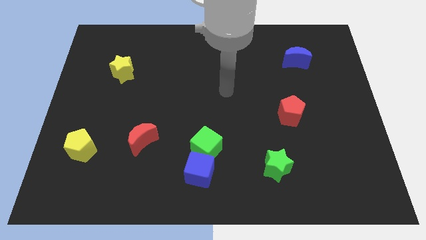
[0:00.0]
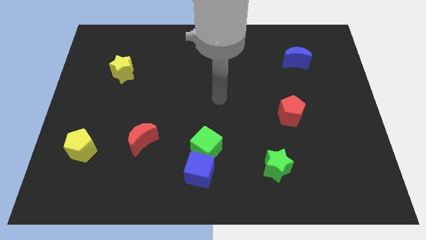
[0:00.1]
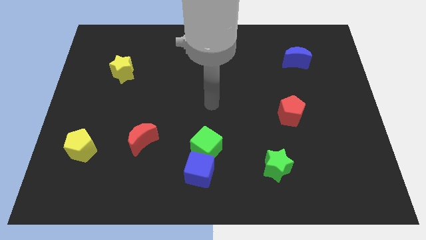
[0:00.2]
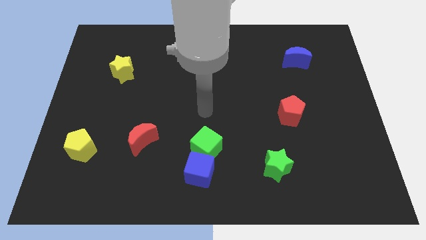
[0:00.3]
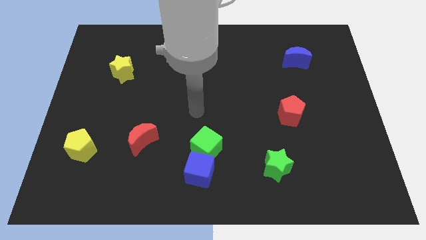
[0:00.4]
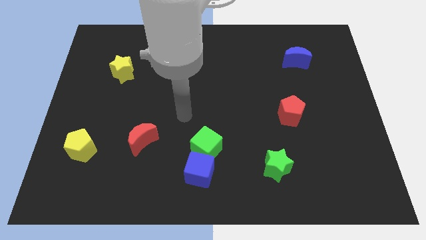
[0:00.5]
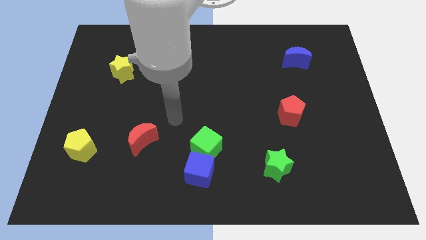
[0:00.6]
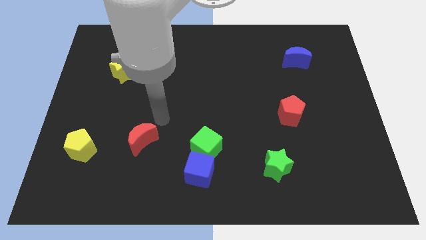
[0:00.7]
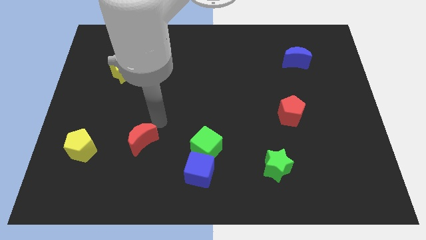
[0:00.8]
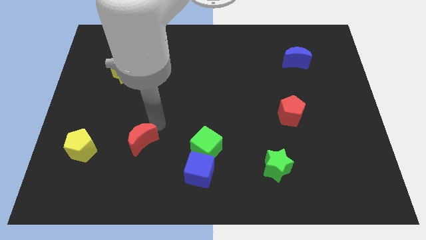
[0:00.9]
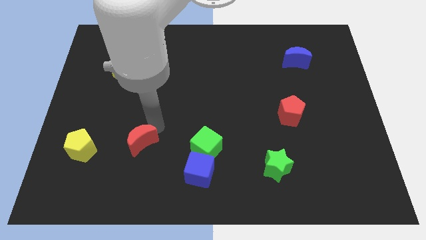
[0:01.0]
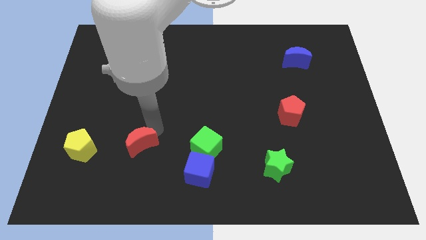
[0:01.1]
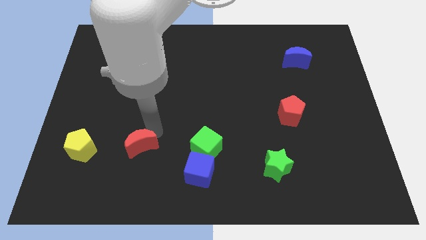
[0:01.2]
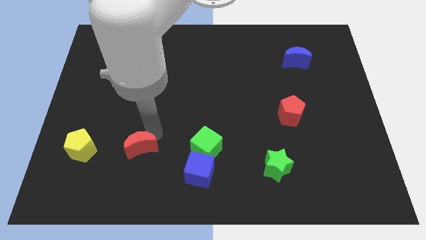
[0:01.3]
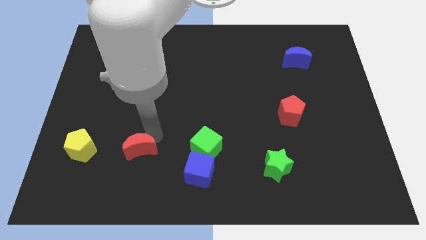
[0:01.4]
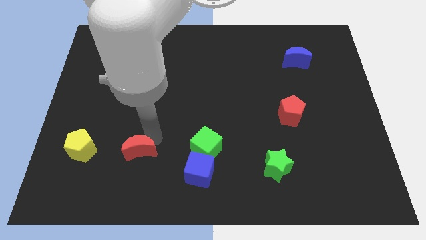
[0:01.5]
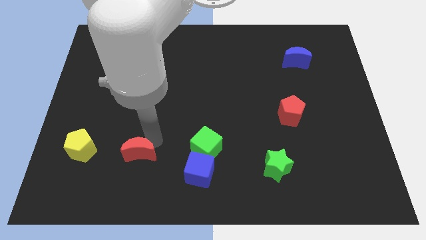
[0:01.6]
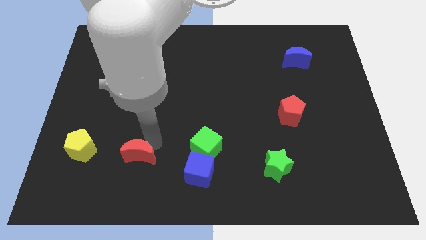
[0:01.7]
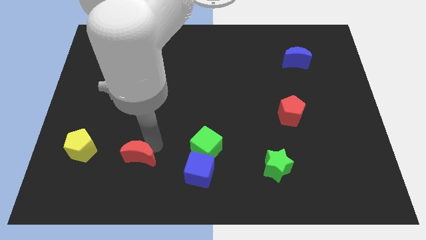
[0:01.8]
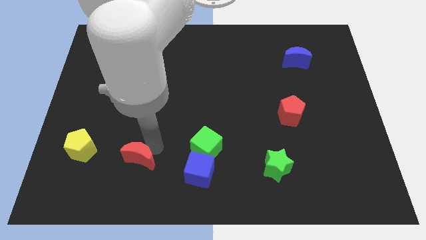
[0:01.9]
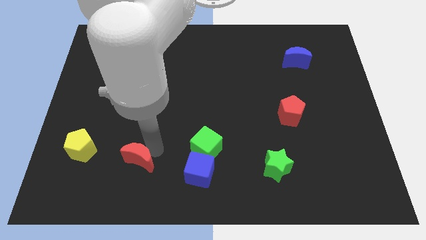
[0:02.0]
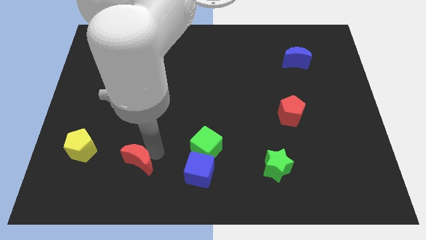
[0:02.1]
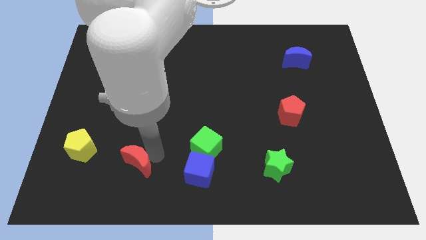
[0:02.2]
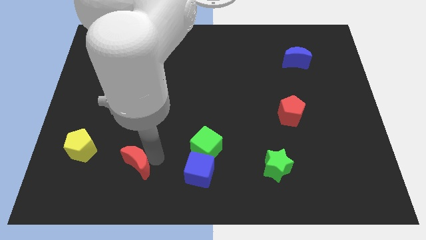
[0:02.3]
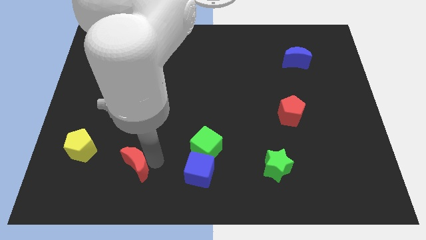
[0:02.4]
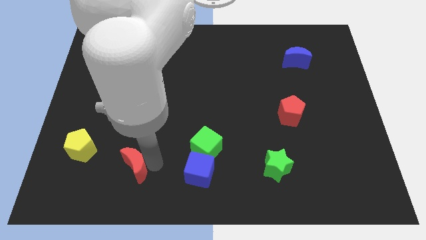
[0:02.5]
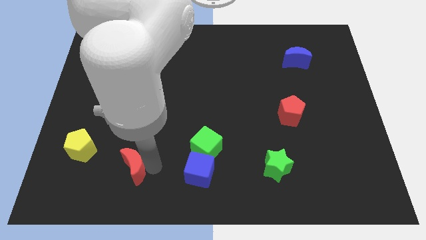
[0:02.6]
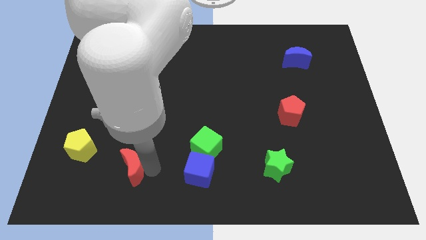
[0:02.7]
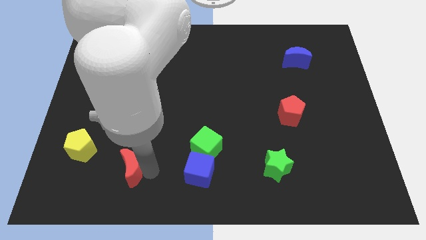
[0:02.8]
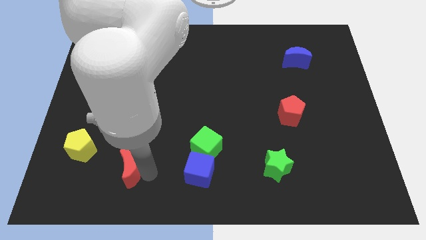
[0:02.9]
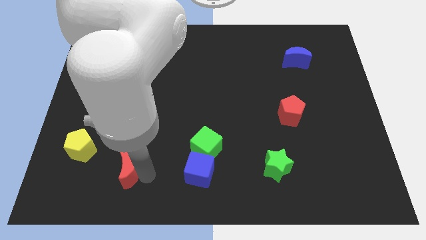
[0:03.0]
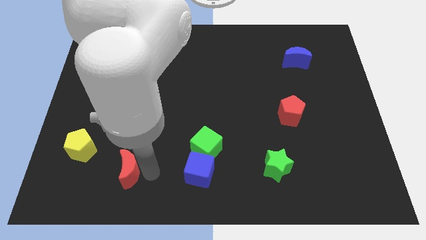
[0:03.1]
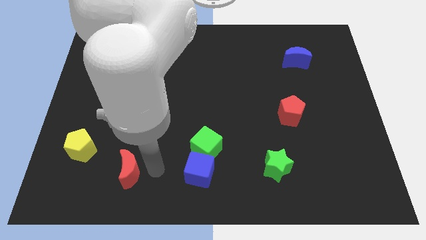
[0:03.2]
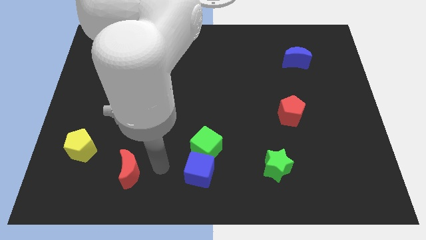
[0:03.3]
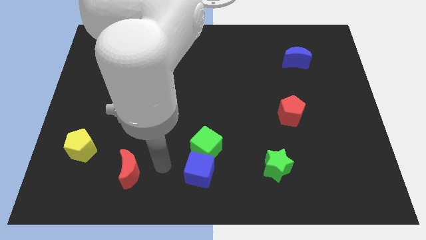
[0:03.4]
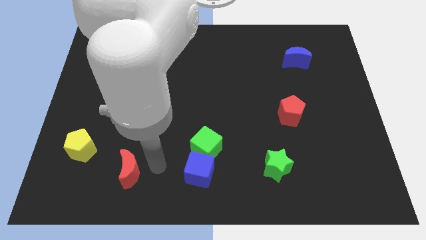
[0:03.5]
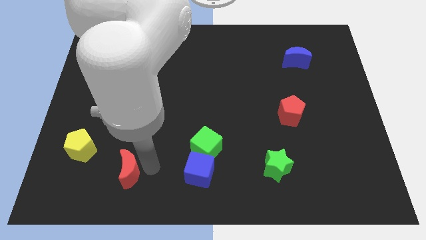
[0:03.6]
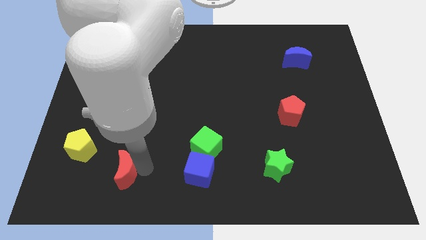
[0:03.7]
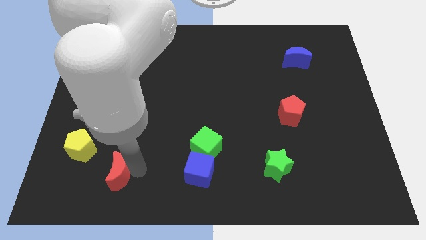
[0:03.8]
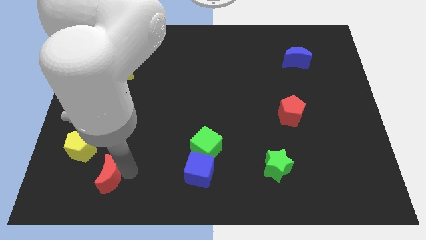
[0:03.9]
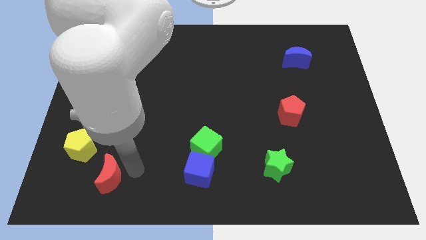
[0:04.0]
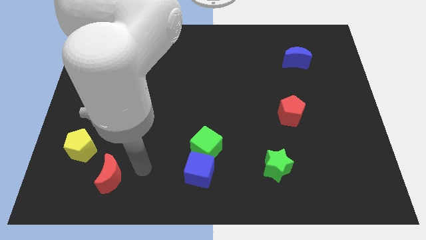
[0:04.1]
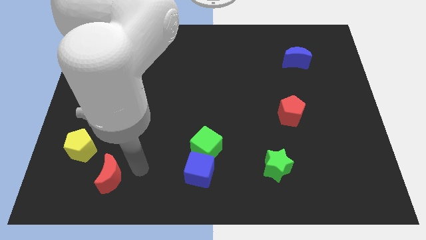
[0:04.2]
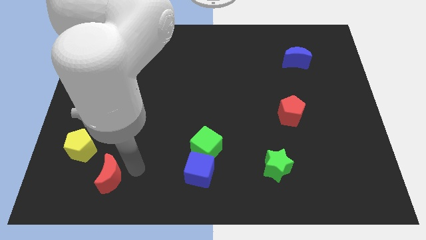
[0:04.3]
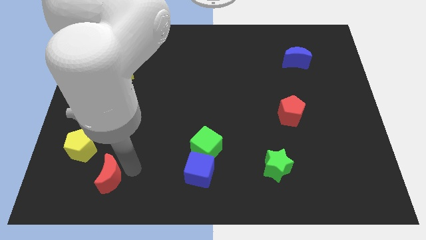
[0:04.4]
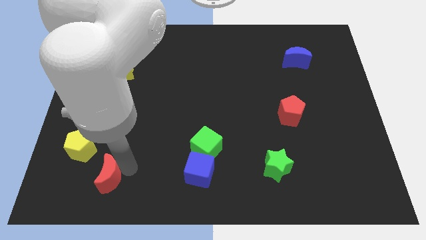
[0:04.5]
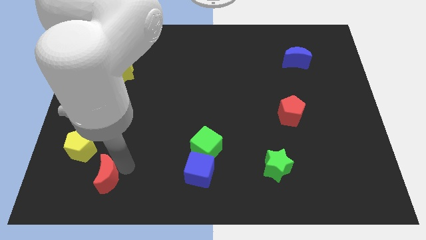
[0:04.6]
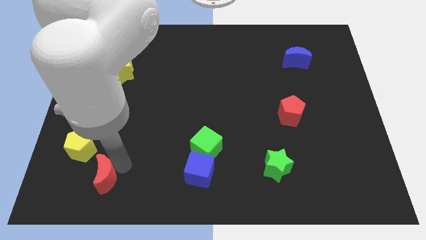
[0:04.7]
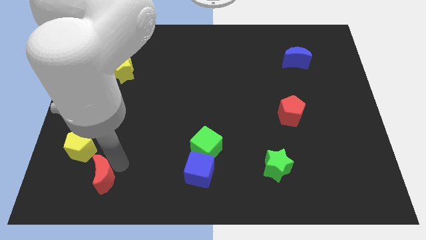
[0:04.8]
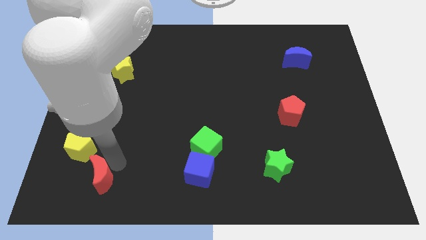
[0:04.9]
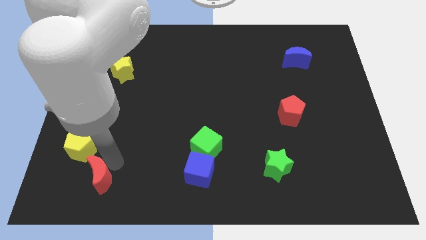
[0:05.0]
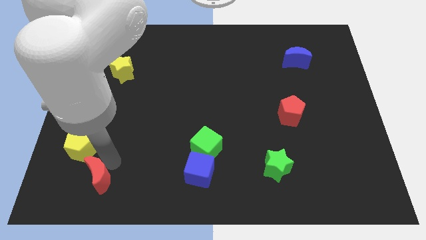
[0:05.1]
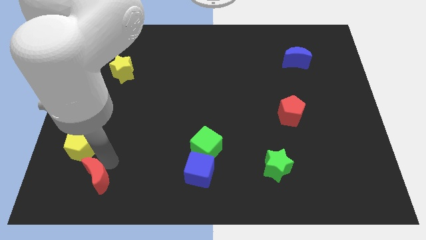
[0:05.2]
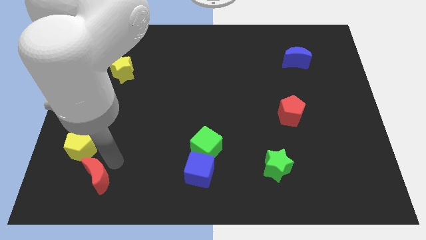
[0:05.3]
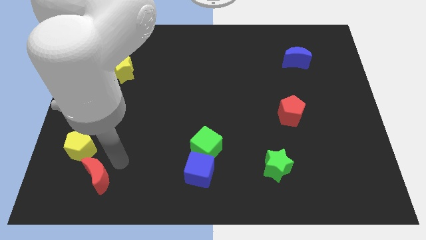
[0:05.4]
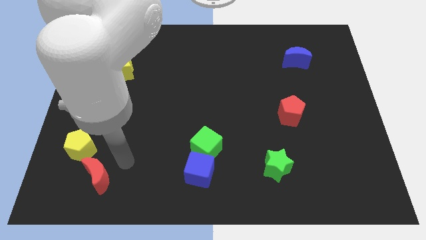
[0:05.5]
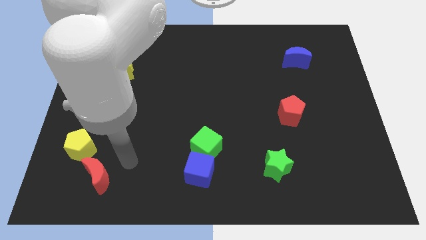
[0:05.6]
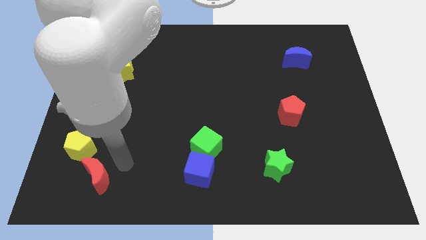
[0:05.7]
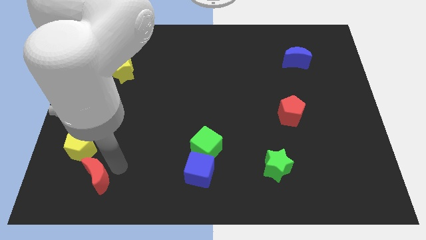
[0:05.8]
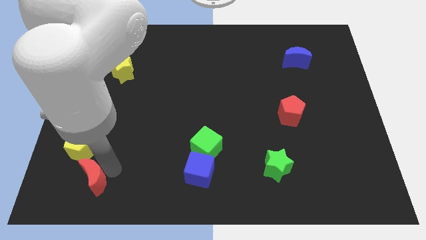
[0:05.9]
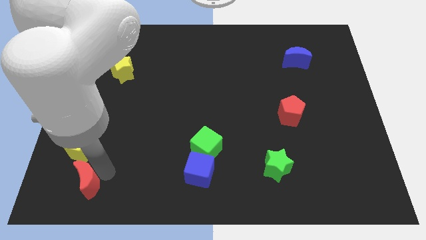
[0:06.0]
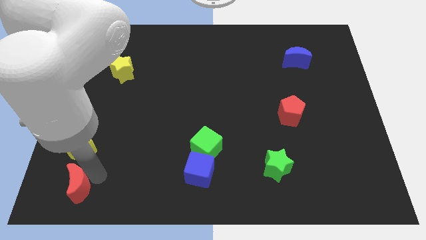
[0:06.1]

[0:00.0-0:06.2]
put the red moon to the bottom left

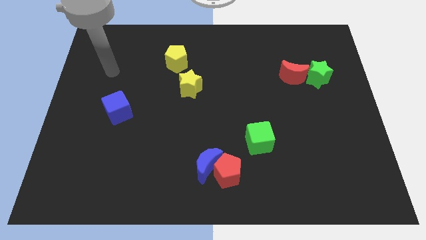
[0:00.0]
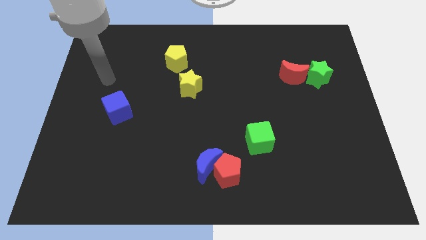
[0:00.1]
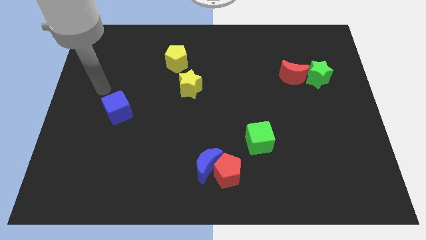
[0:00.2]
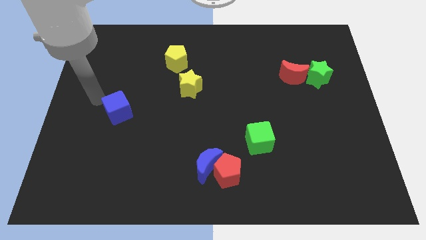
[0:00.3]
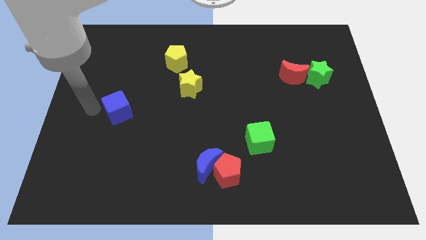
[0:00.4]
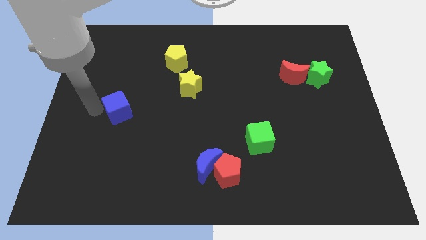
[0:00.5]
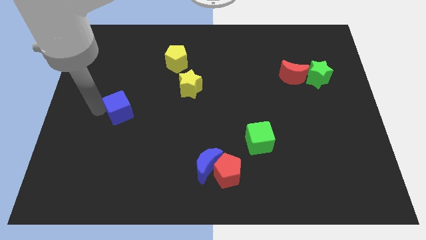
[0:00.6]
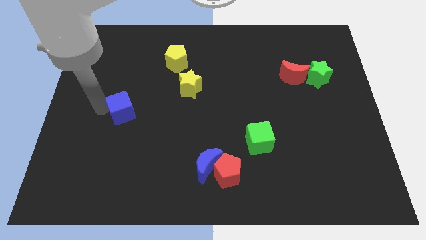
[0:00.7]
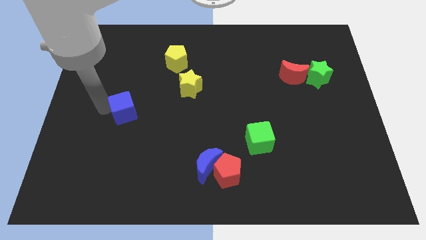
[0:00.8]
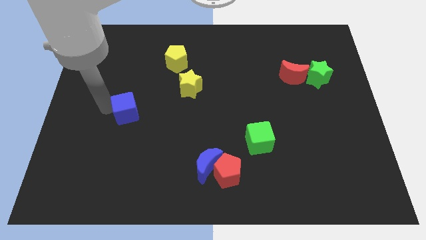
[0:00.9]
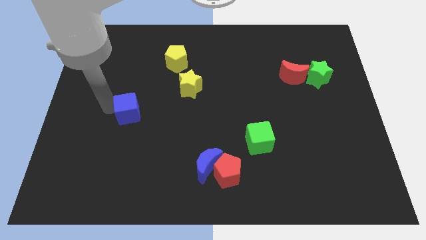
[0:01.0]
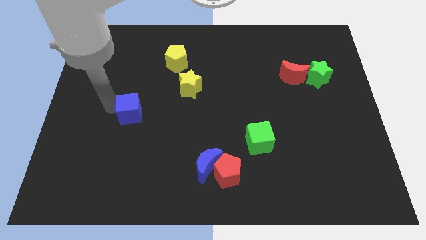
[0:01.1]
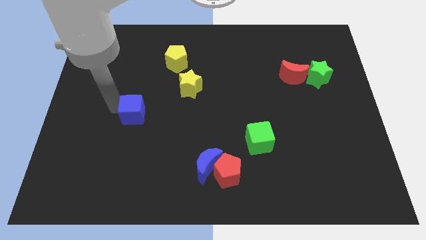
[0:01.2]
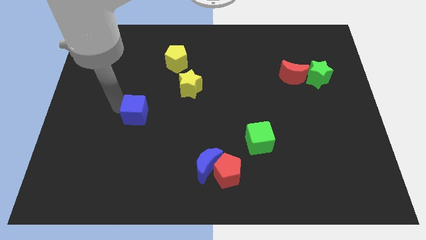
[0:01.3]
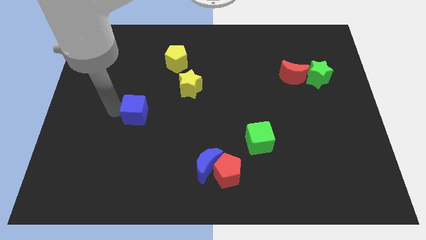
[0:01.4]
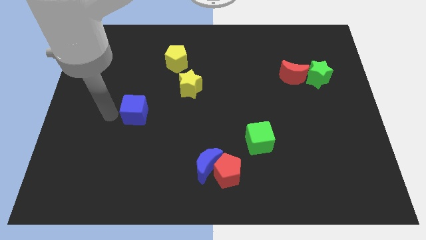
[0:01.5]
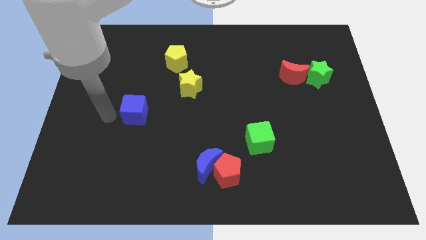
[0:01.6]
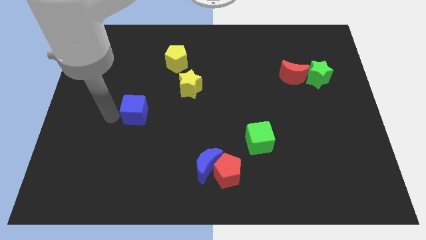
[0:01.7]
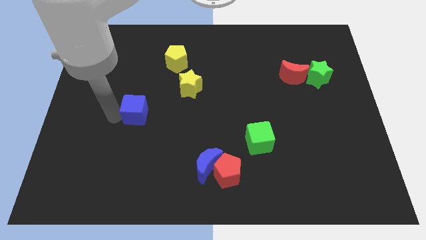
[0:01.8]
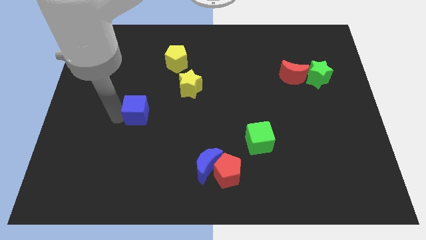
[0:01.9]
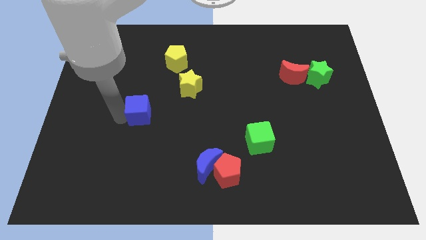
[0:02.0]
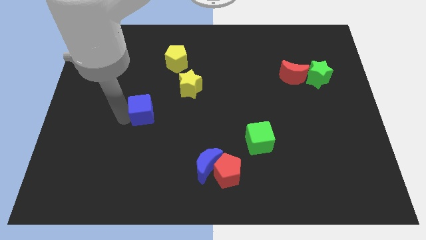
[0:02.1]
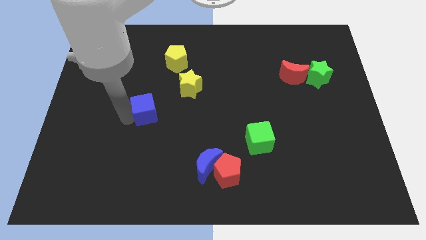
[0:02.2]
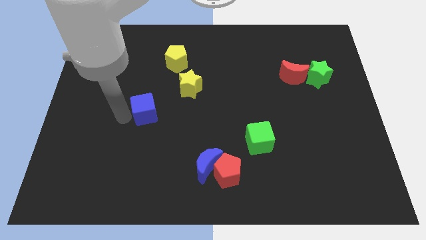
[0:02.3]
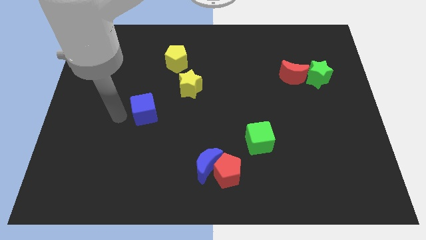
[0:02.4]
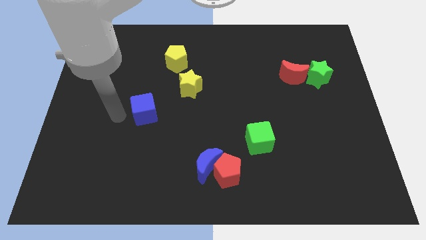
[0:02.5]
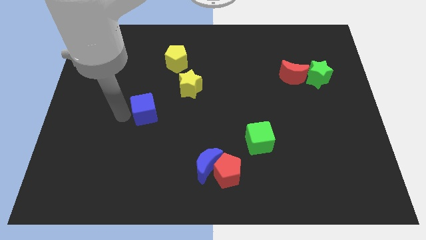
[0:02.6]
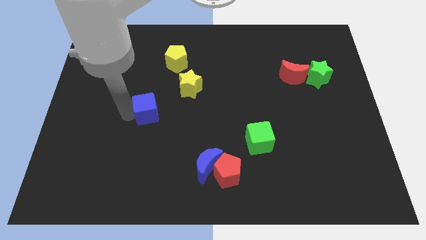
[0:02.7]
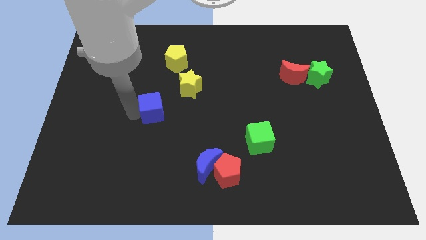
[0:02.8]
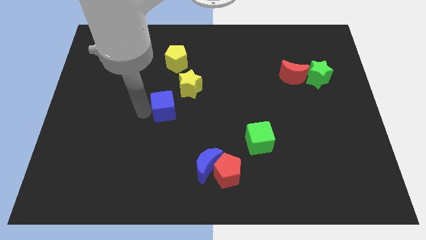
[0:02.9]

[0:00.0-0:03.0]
put the blue cube to the middle of the board
